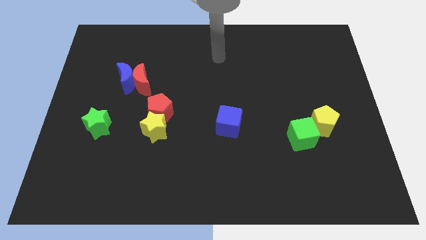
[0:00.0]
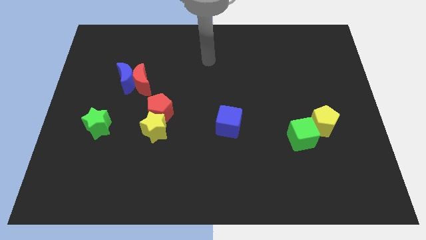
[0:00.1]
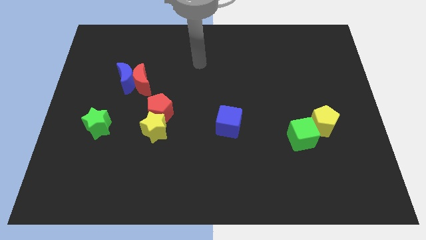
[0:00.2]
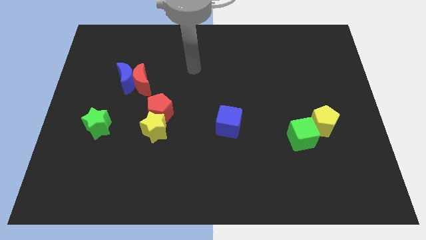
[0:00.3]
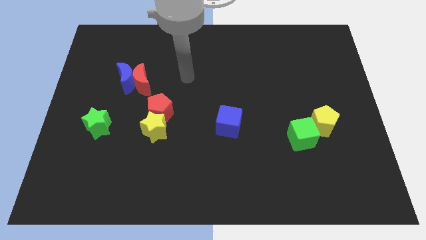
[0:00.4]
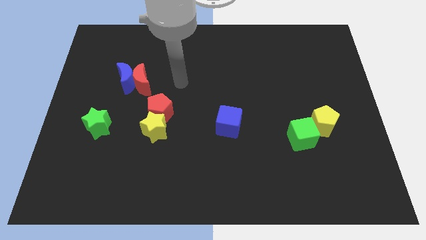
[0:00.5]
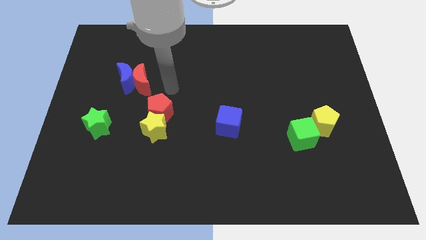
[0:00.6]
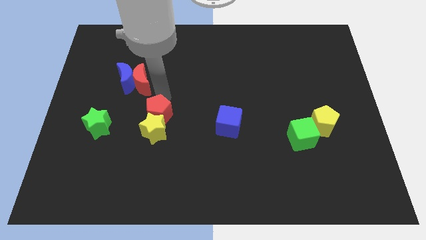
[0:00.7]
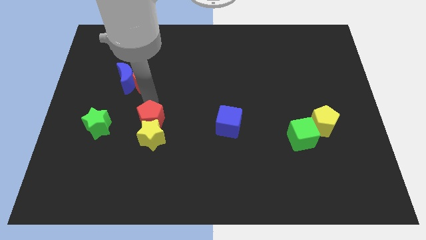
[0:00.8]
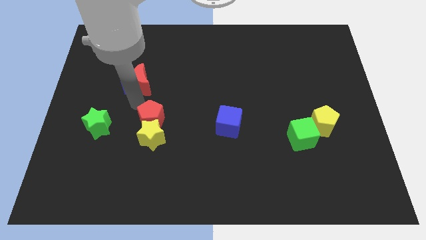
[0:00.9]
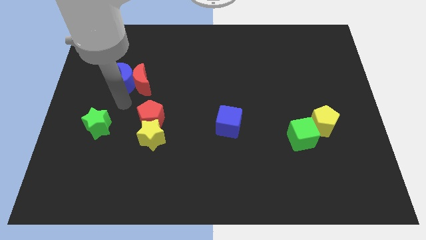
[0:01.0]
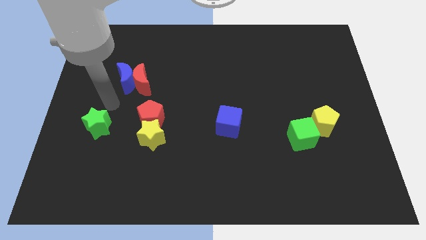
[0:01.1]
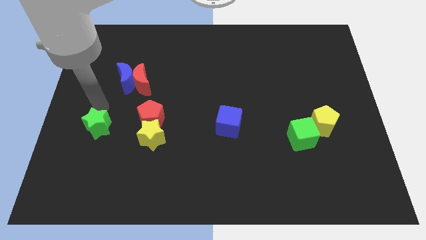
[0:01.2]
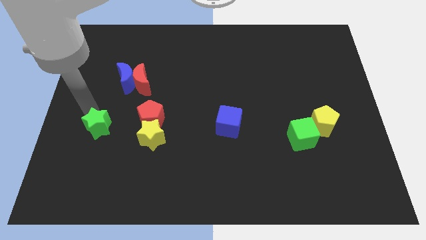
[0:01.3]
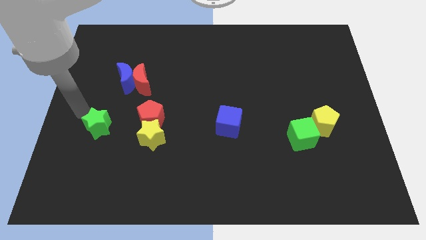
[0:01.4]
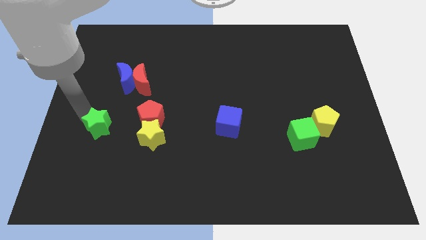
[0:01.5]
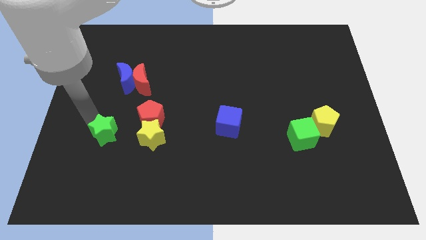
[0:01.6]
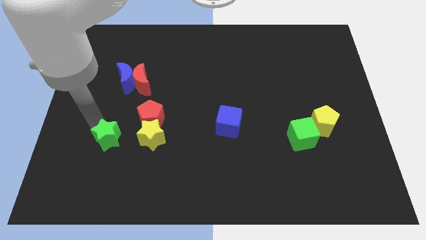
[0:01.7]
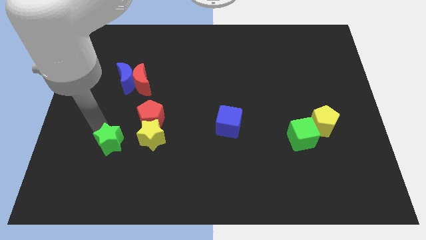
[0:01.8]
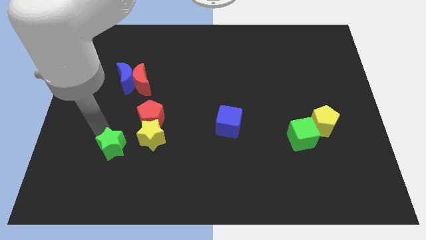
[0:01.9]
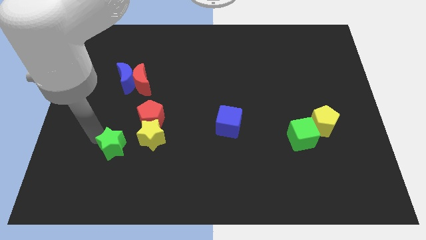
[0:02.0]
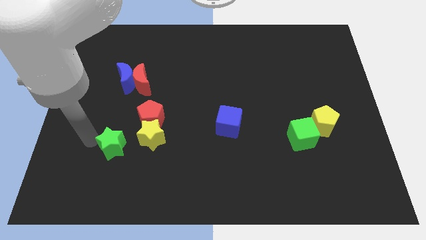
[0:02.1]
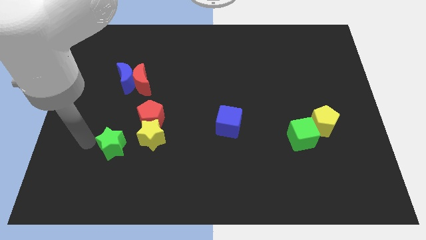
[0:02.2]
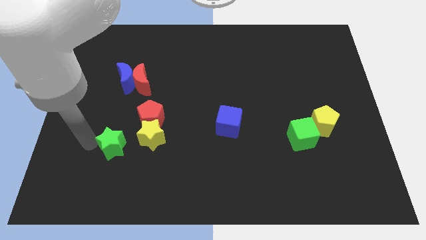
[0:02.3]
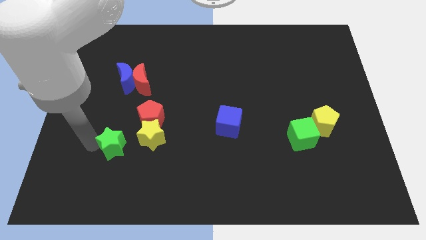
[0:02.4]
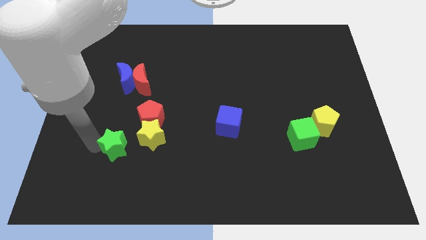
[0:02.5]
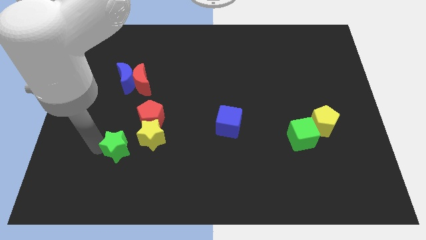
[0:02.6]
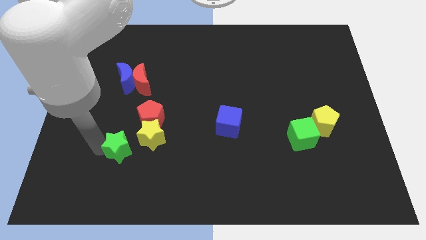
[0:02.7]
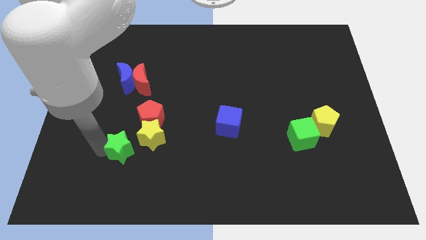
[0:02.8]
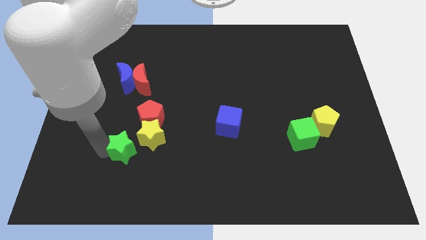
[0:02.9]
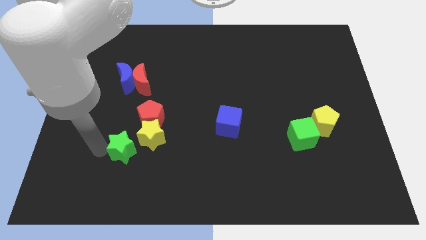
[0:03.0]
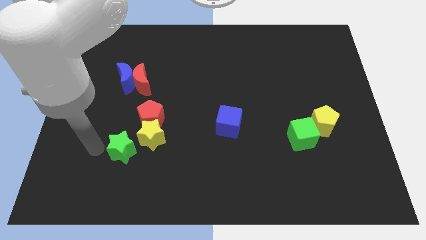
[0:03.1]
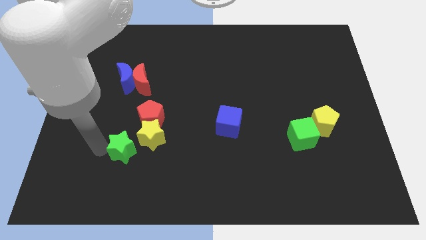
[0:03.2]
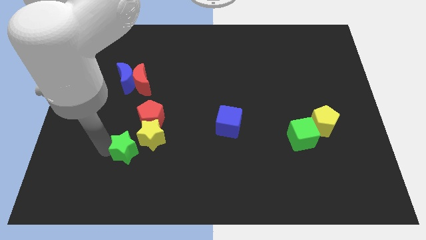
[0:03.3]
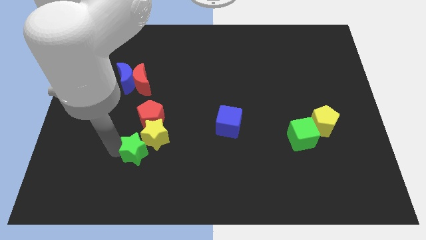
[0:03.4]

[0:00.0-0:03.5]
slightly slide the green star right

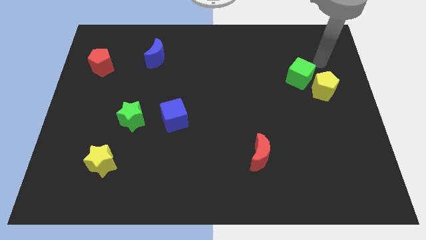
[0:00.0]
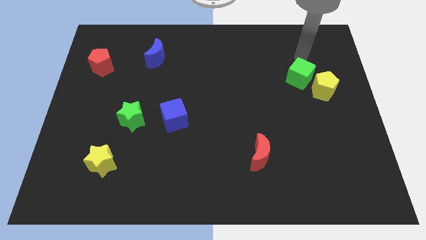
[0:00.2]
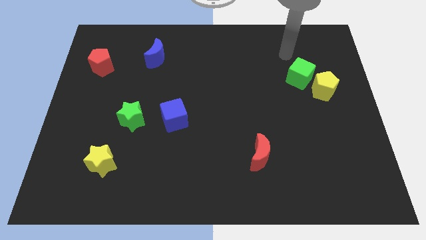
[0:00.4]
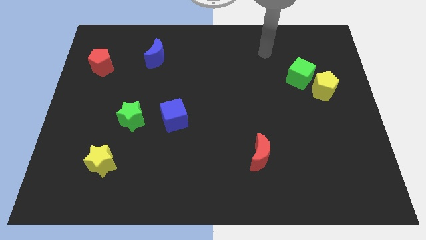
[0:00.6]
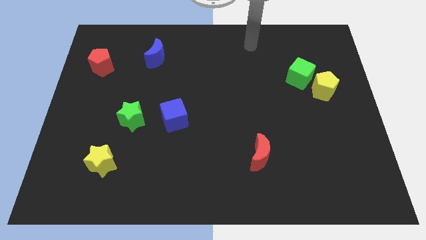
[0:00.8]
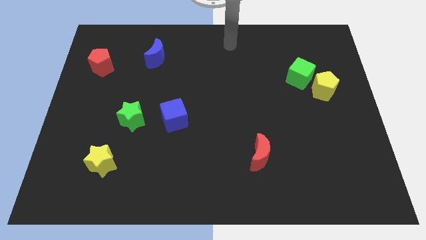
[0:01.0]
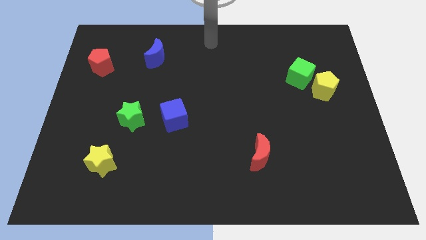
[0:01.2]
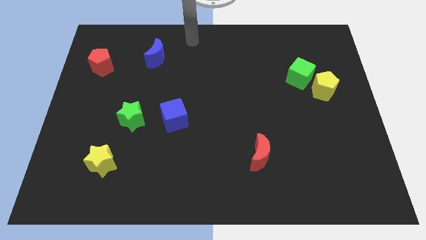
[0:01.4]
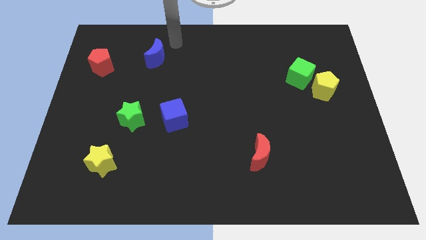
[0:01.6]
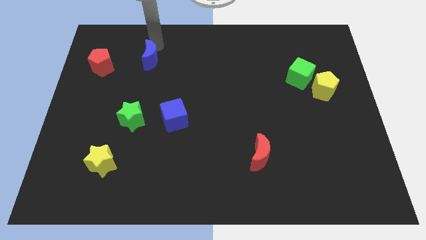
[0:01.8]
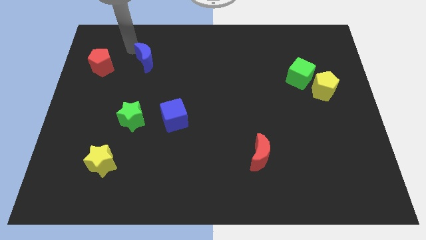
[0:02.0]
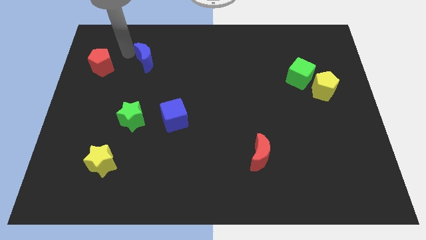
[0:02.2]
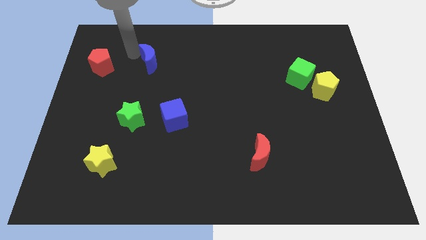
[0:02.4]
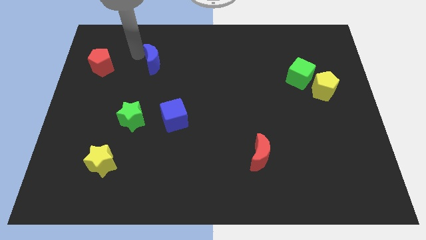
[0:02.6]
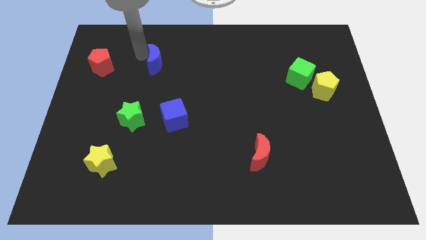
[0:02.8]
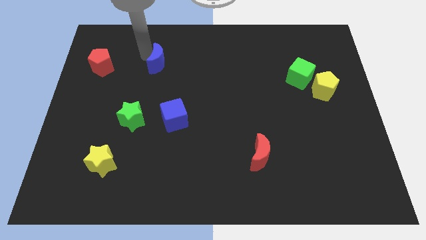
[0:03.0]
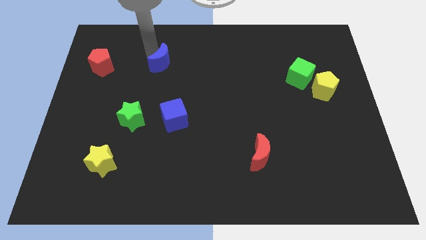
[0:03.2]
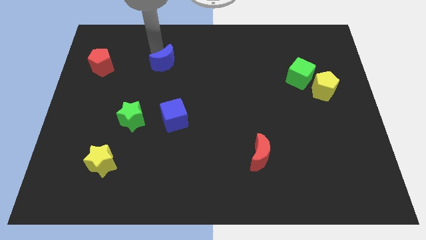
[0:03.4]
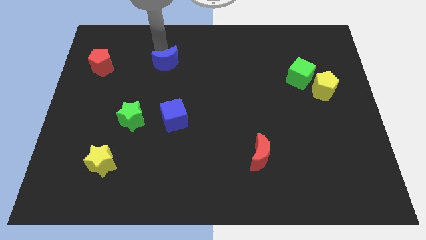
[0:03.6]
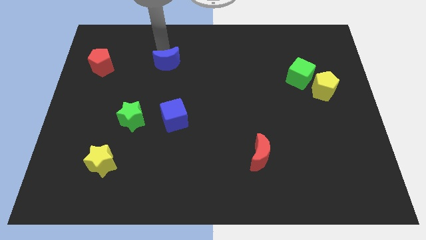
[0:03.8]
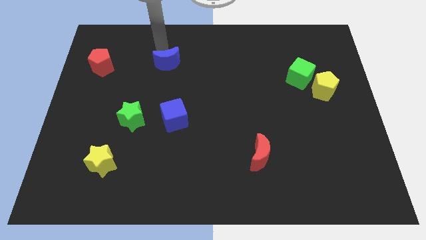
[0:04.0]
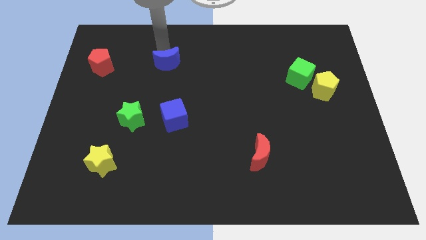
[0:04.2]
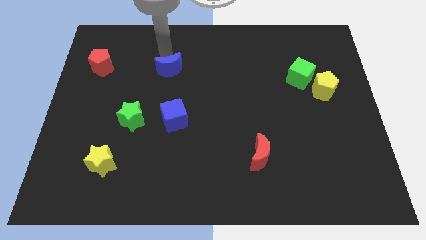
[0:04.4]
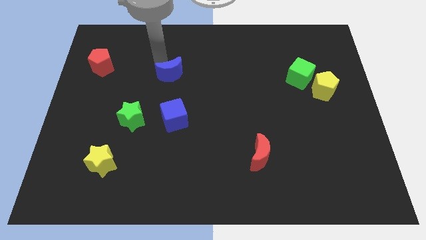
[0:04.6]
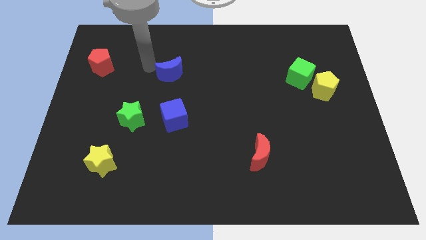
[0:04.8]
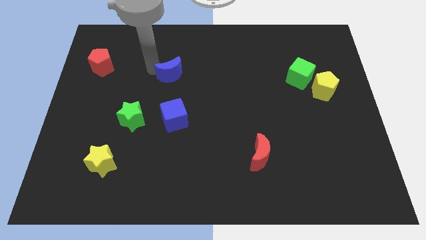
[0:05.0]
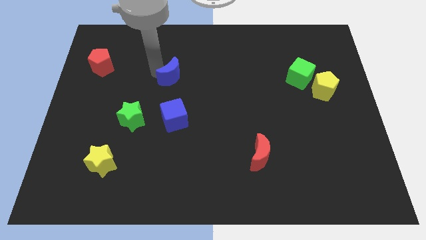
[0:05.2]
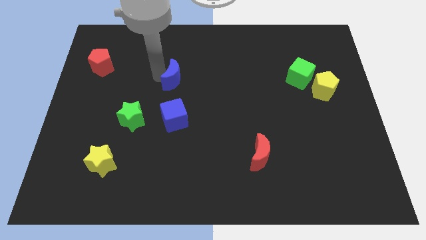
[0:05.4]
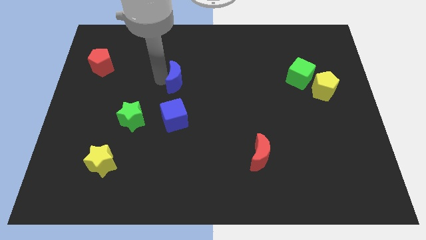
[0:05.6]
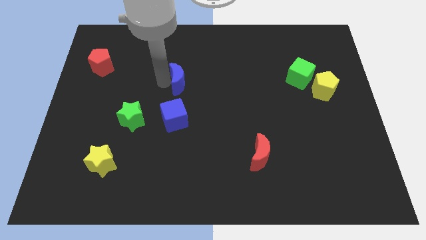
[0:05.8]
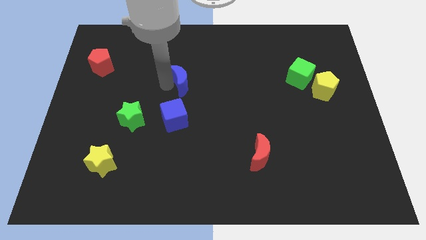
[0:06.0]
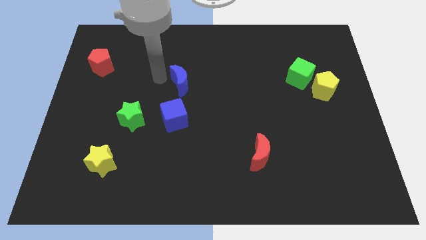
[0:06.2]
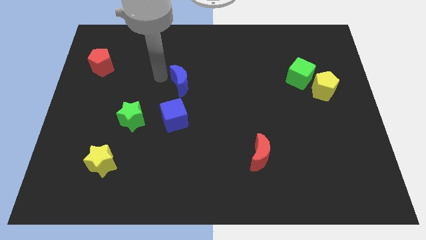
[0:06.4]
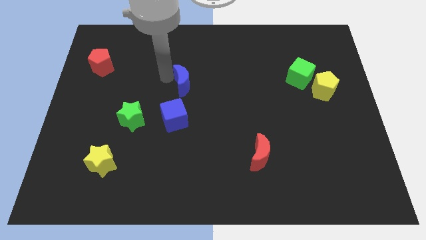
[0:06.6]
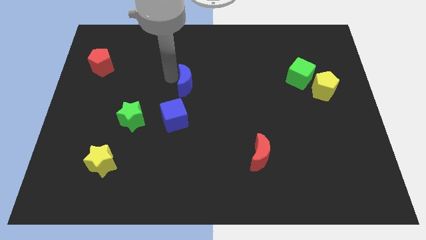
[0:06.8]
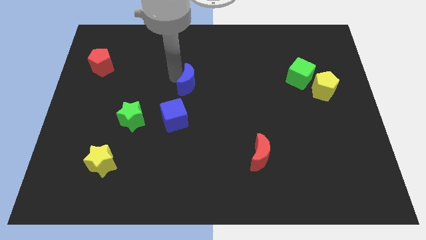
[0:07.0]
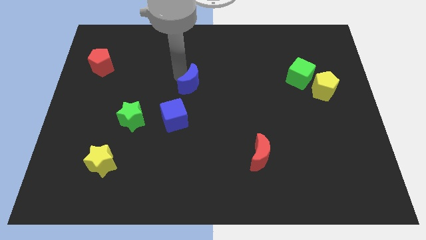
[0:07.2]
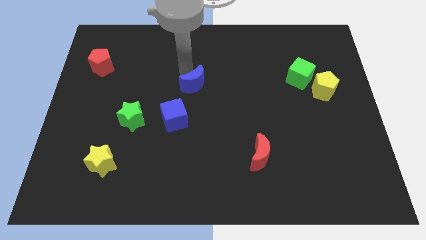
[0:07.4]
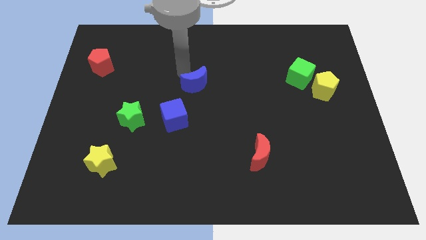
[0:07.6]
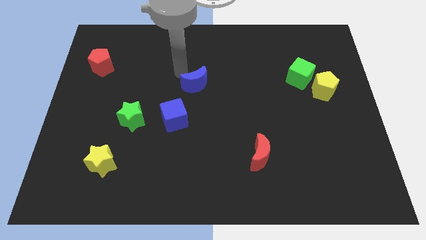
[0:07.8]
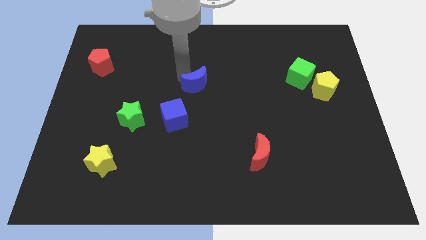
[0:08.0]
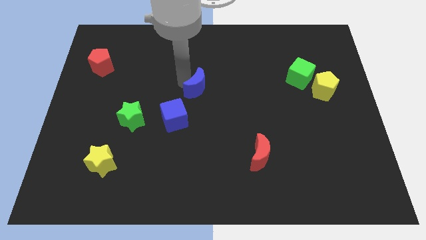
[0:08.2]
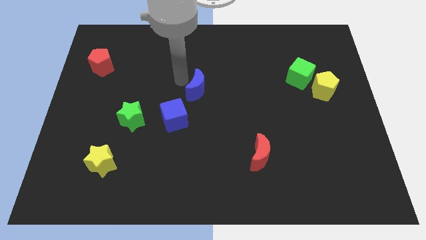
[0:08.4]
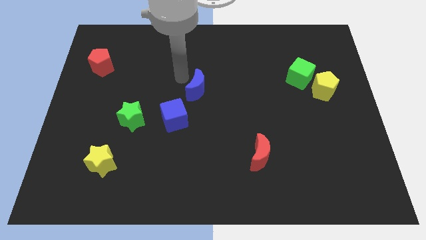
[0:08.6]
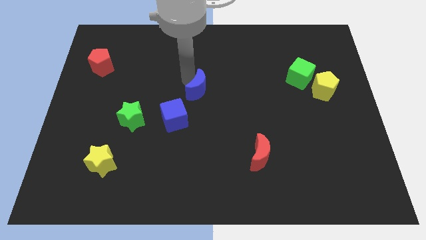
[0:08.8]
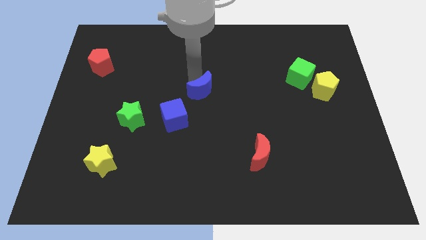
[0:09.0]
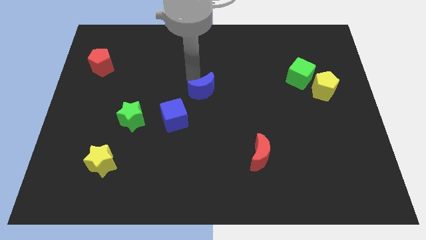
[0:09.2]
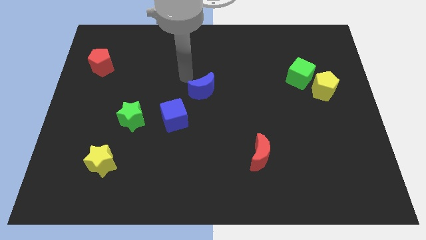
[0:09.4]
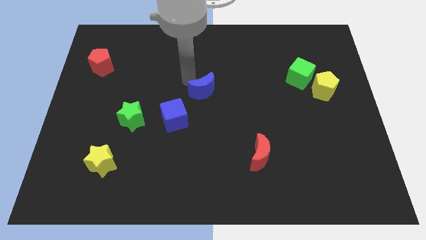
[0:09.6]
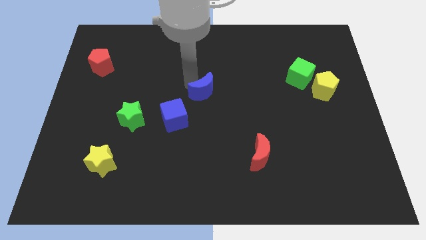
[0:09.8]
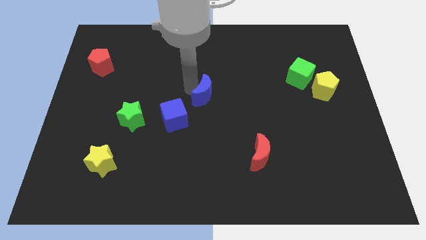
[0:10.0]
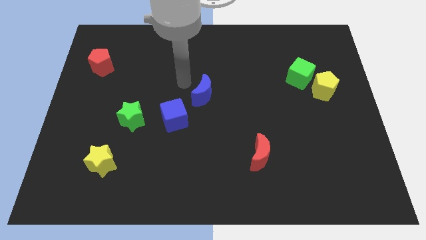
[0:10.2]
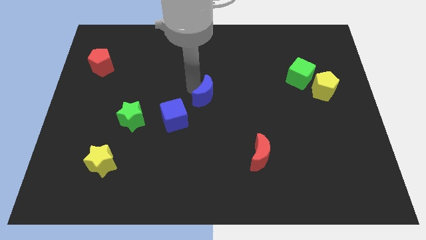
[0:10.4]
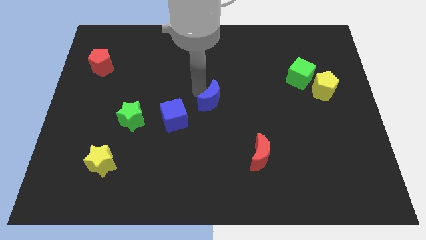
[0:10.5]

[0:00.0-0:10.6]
move the blue moon down and to the right
